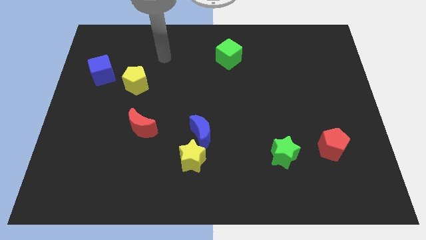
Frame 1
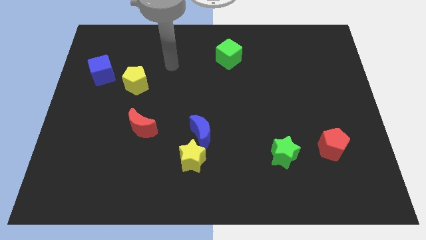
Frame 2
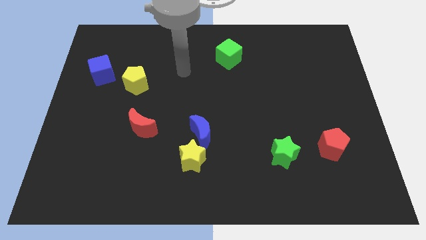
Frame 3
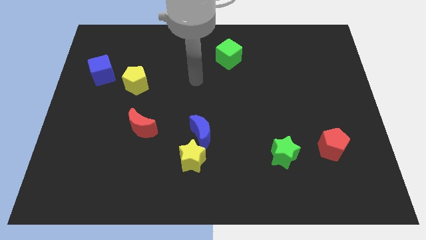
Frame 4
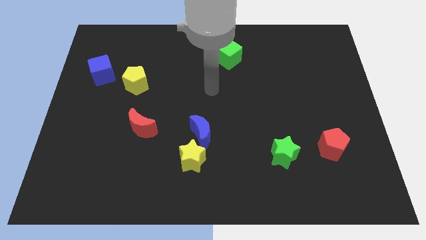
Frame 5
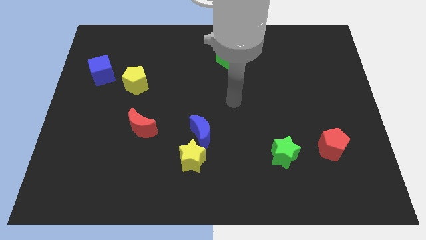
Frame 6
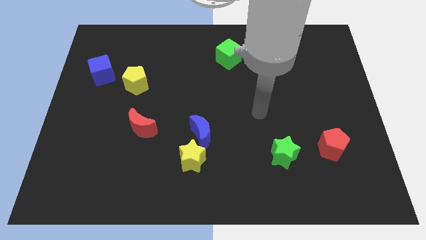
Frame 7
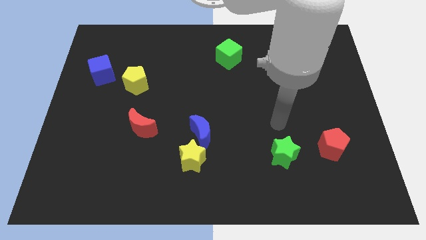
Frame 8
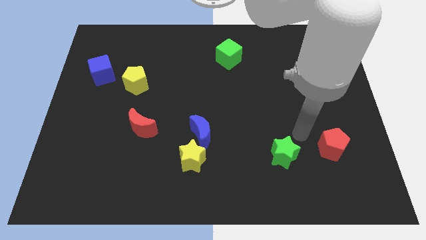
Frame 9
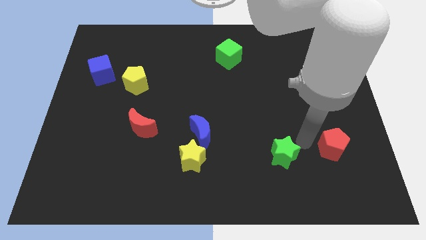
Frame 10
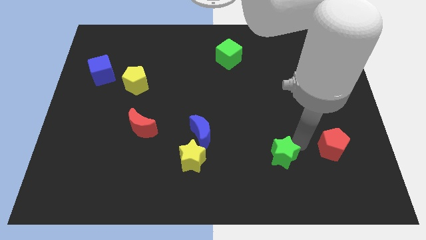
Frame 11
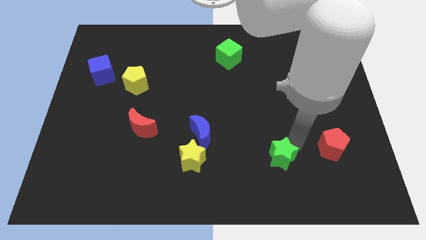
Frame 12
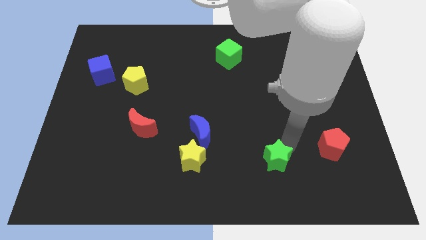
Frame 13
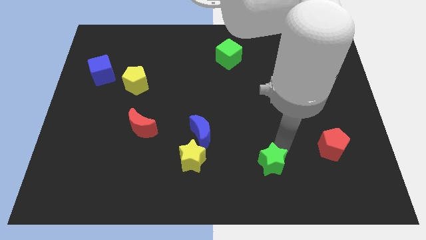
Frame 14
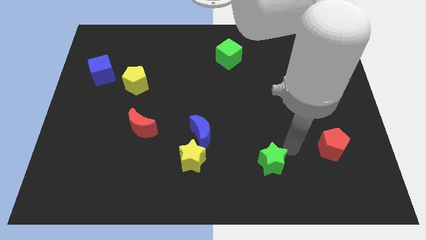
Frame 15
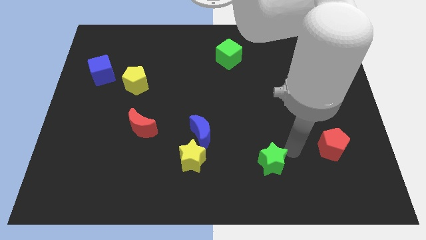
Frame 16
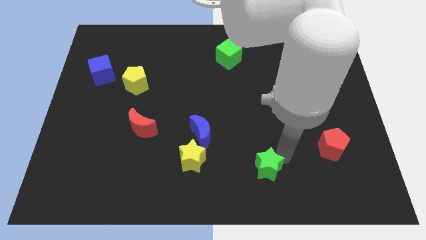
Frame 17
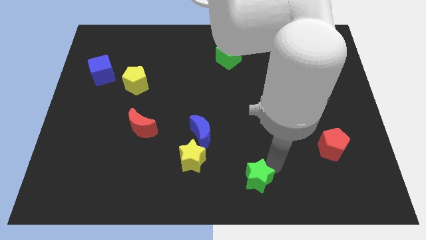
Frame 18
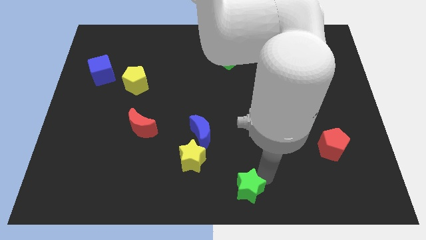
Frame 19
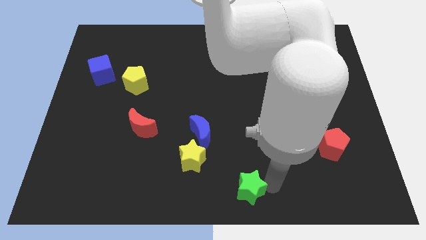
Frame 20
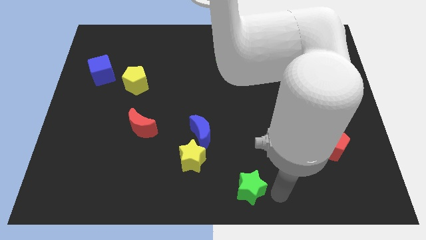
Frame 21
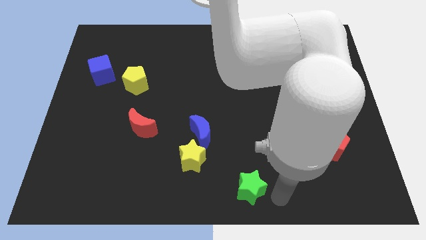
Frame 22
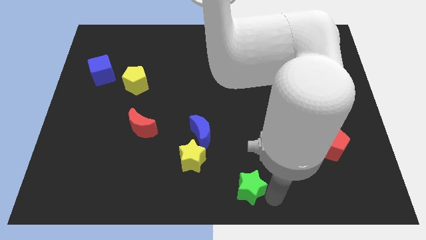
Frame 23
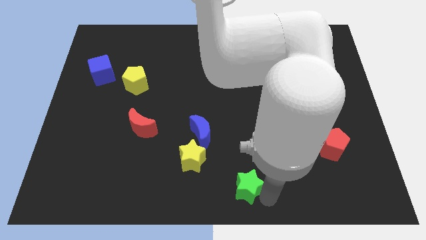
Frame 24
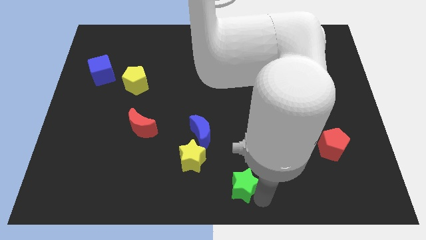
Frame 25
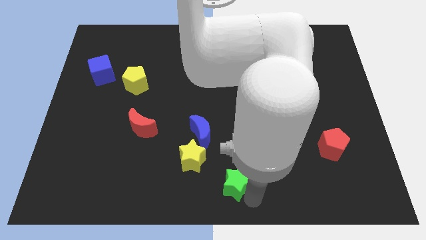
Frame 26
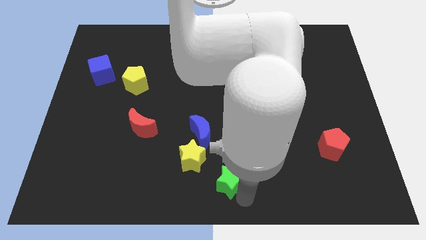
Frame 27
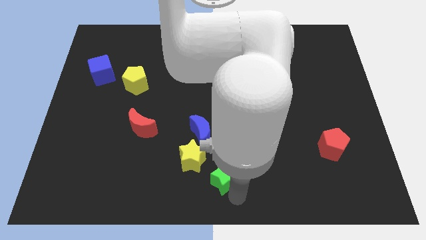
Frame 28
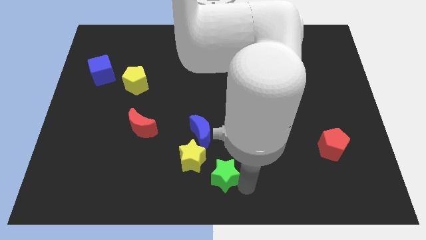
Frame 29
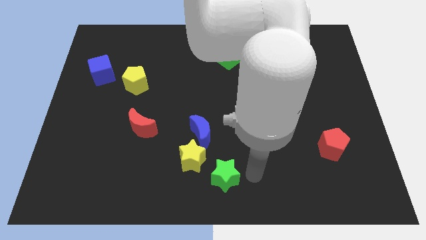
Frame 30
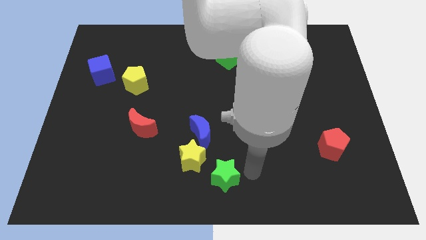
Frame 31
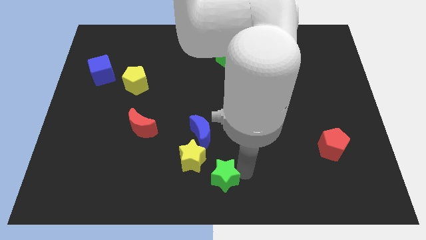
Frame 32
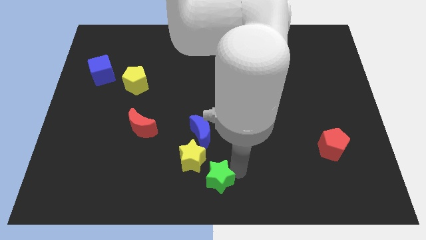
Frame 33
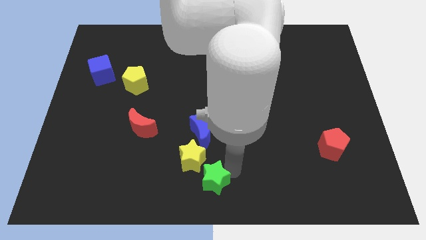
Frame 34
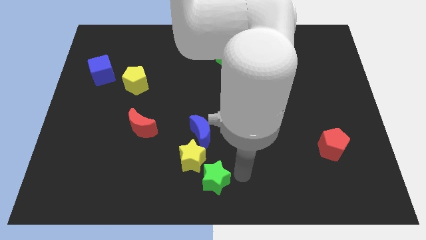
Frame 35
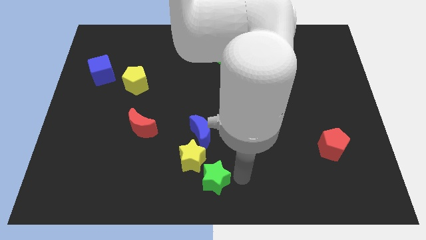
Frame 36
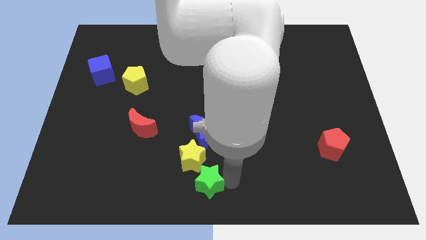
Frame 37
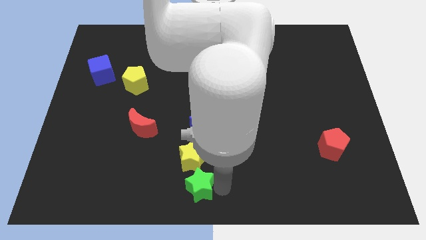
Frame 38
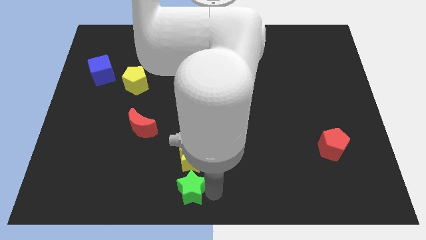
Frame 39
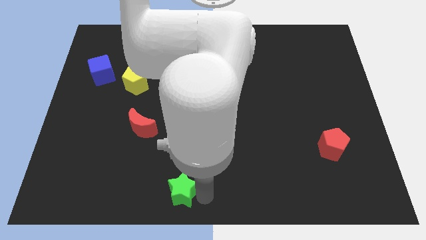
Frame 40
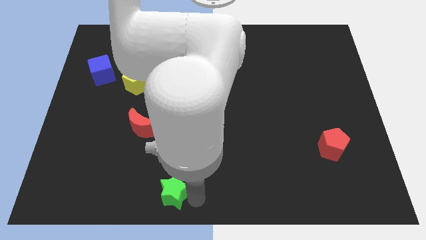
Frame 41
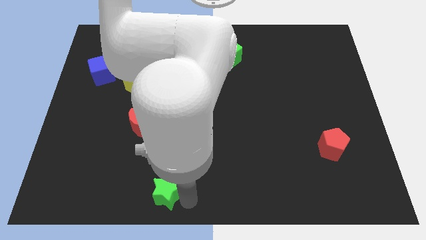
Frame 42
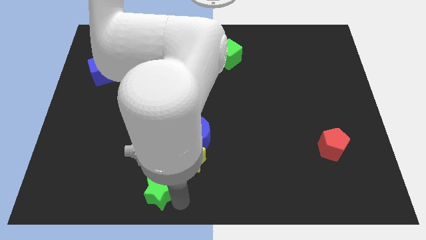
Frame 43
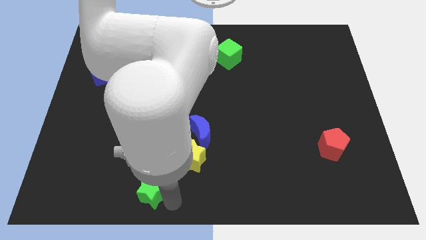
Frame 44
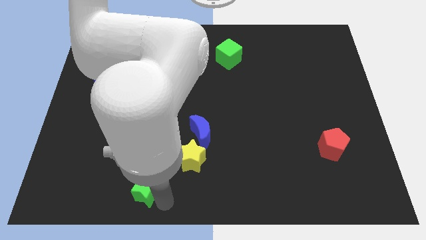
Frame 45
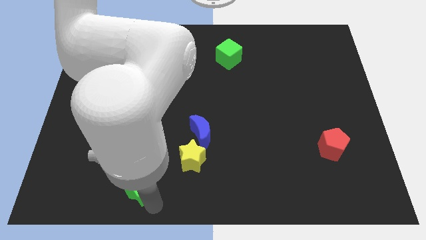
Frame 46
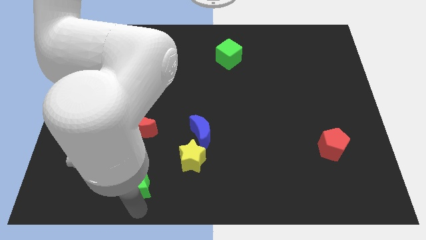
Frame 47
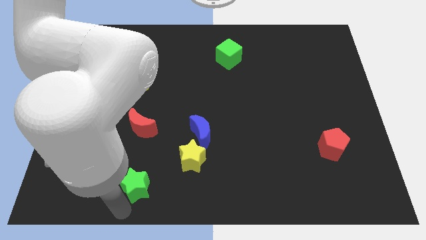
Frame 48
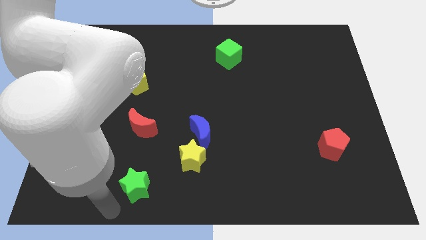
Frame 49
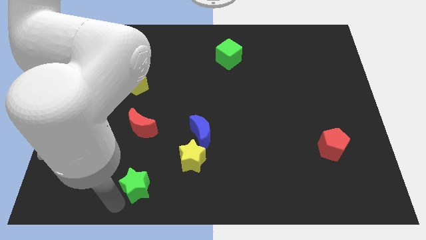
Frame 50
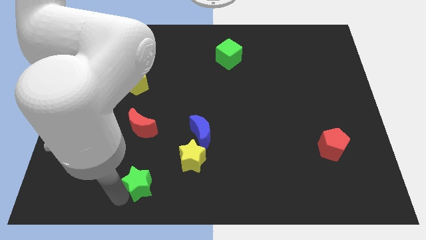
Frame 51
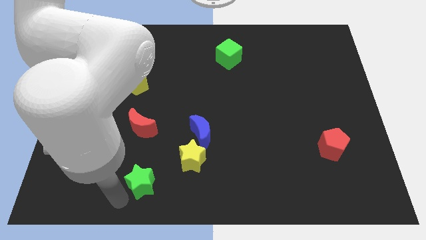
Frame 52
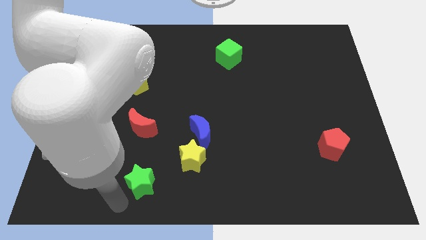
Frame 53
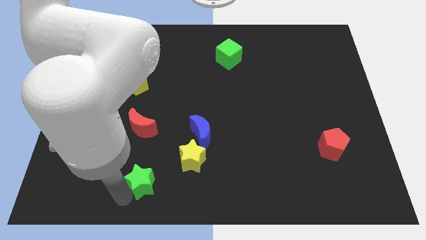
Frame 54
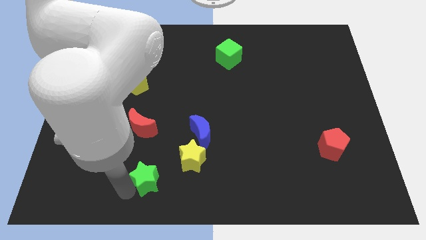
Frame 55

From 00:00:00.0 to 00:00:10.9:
push the green star left of the yellow star

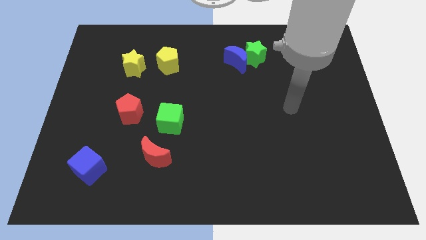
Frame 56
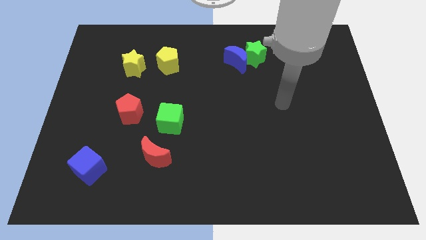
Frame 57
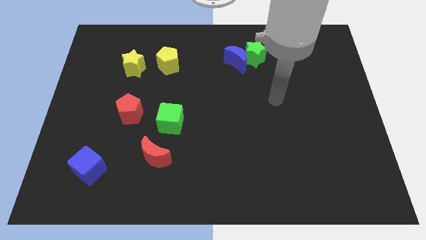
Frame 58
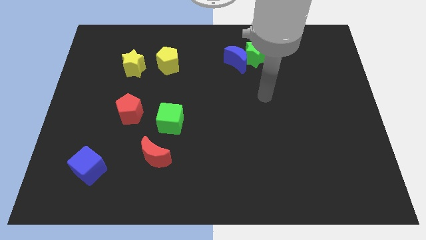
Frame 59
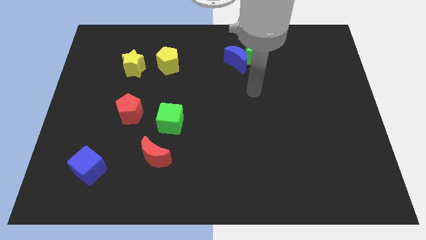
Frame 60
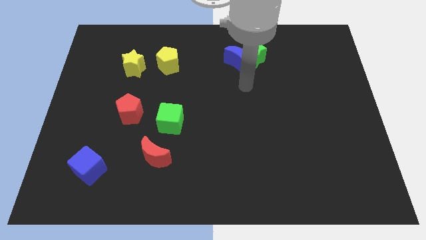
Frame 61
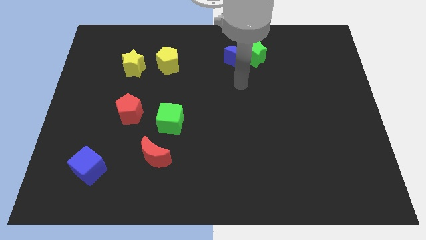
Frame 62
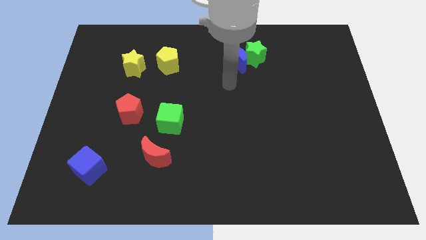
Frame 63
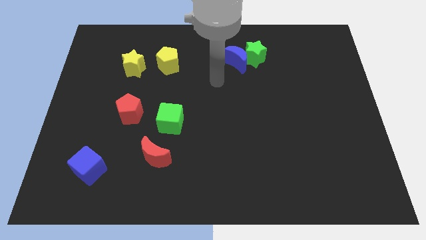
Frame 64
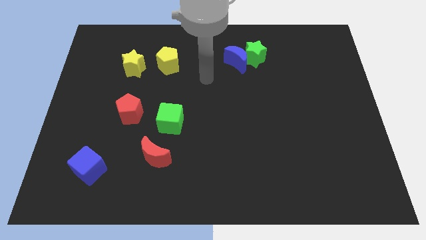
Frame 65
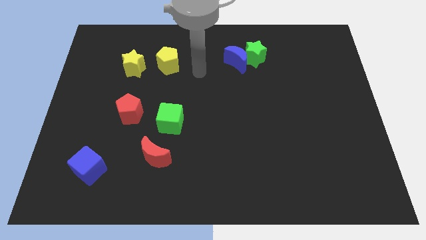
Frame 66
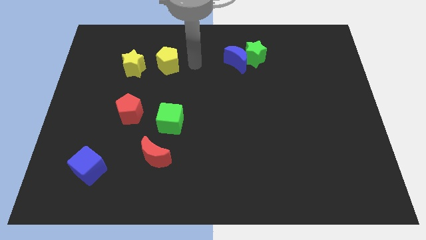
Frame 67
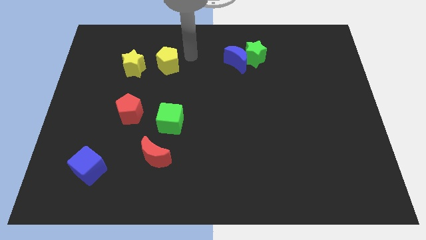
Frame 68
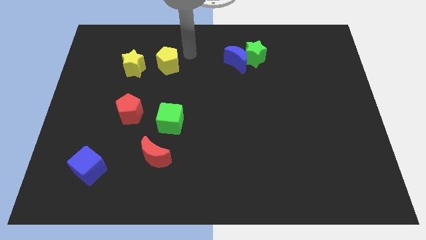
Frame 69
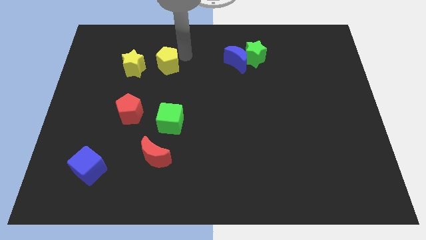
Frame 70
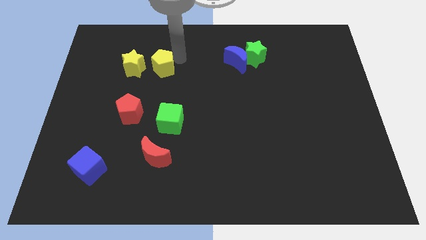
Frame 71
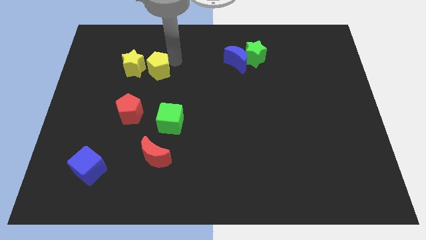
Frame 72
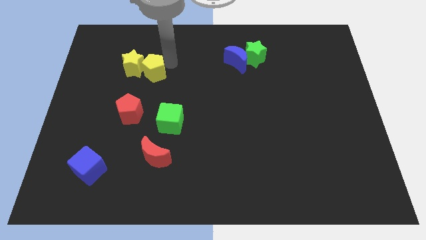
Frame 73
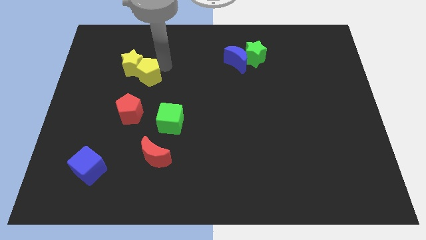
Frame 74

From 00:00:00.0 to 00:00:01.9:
move the yellow pentagon to the bottom of the yellow star
